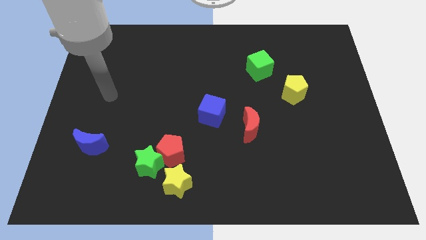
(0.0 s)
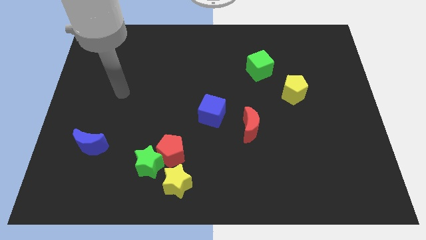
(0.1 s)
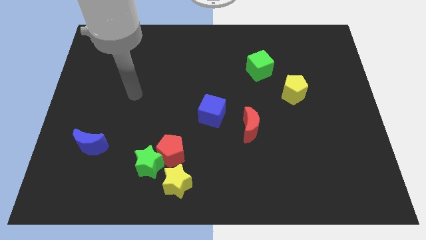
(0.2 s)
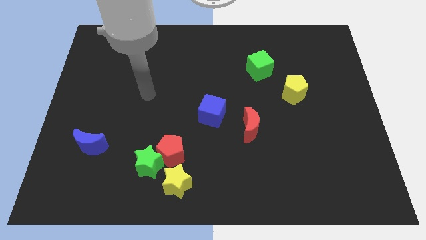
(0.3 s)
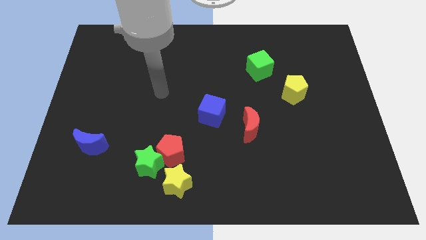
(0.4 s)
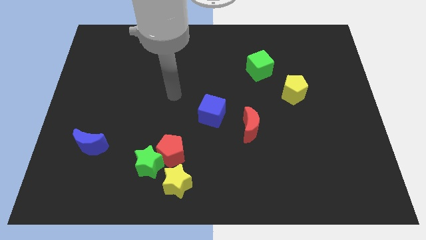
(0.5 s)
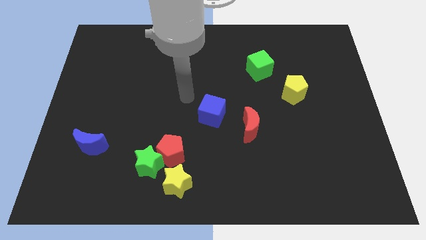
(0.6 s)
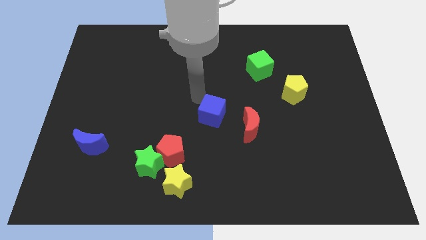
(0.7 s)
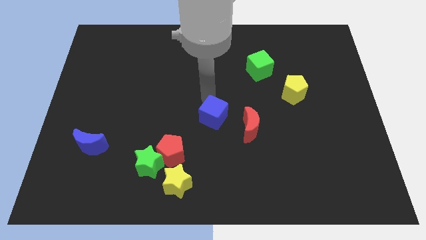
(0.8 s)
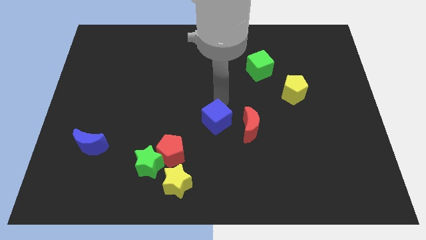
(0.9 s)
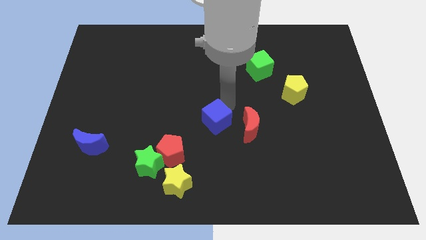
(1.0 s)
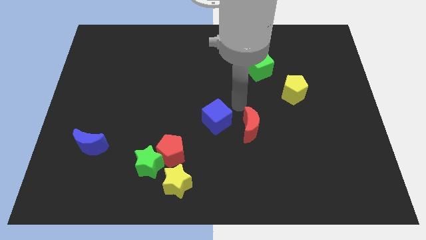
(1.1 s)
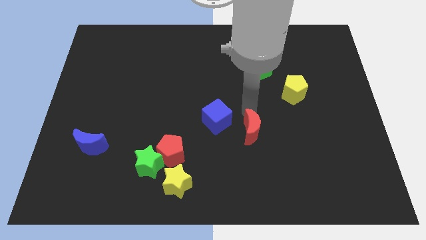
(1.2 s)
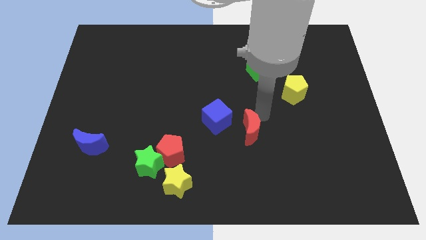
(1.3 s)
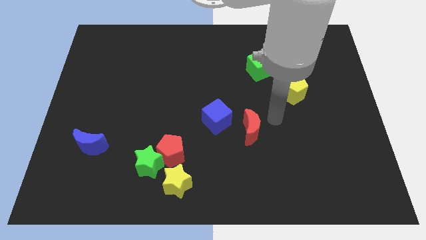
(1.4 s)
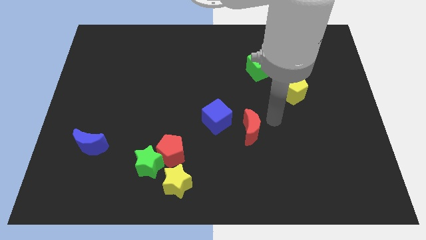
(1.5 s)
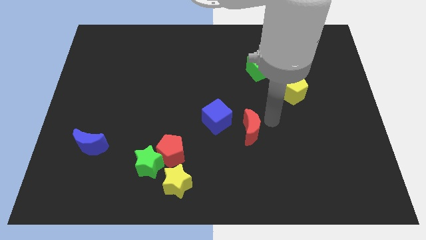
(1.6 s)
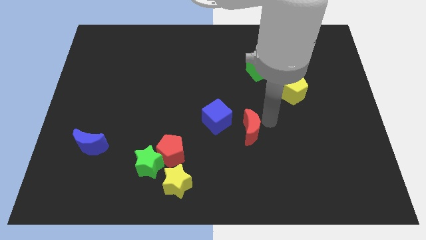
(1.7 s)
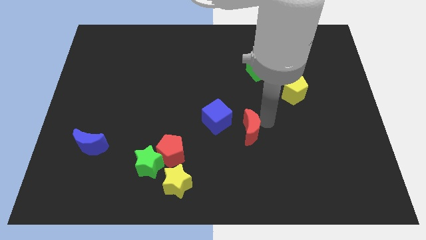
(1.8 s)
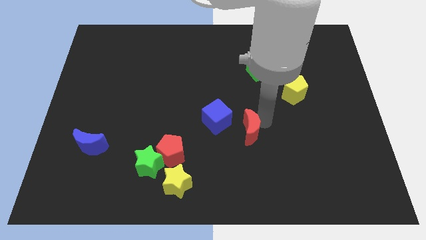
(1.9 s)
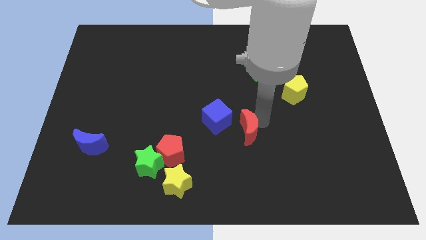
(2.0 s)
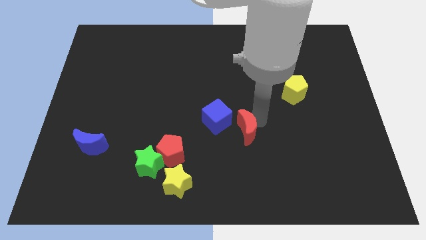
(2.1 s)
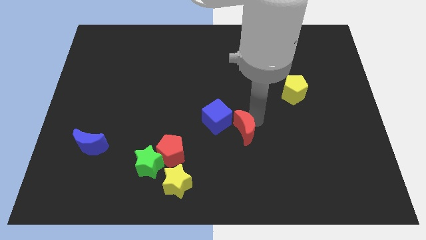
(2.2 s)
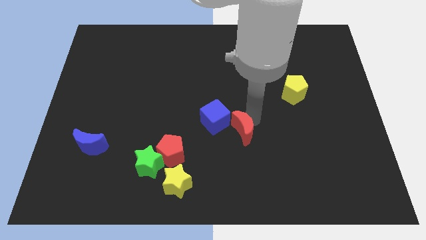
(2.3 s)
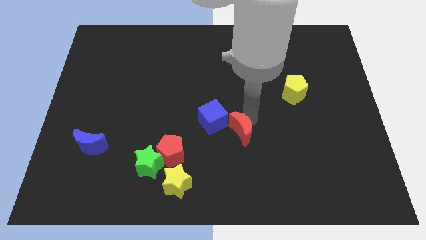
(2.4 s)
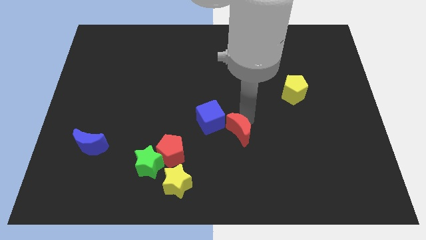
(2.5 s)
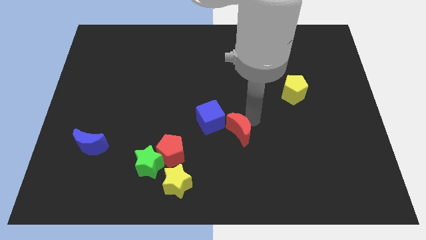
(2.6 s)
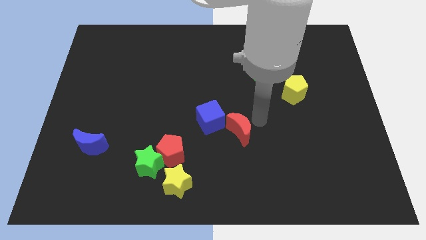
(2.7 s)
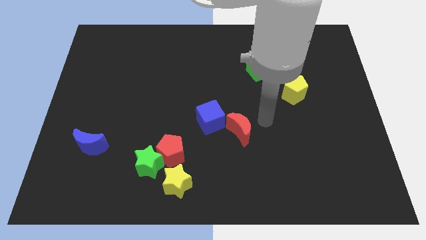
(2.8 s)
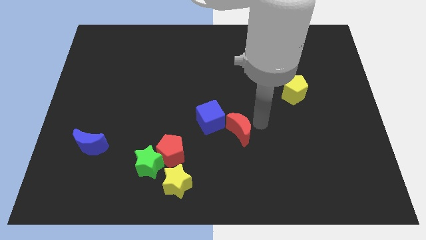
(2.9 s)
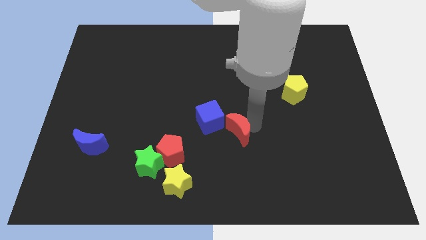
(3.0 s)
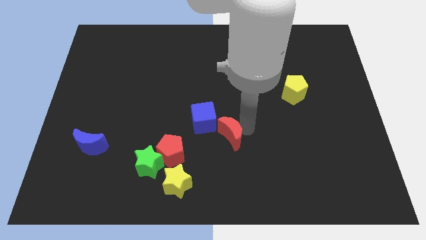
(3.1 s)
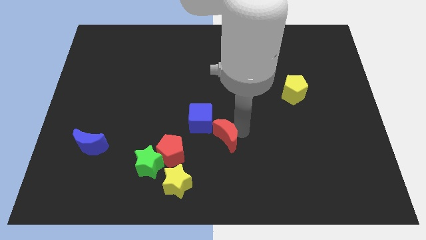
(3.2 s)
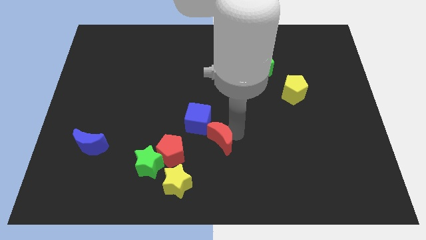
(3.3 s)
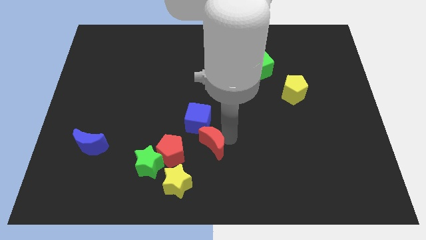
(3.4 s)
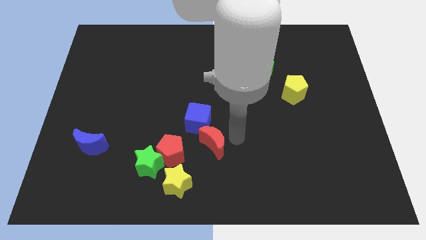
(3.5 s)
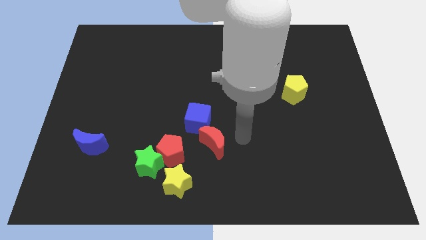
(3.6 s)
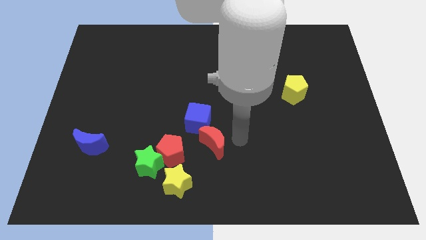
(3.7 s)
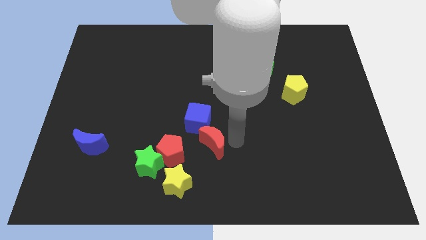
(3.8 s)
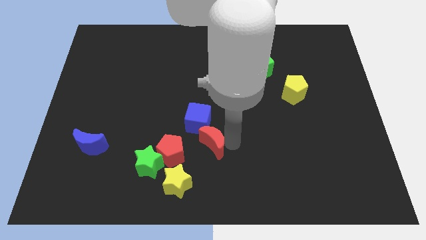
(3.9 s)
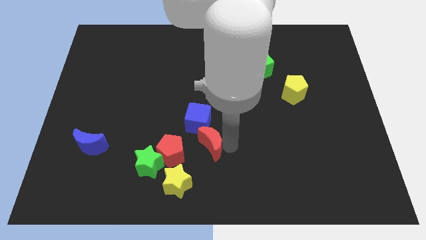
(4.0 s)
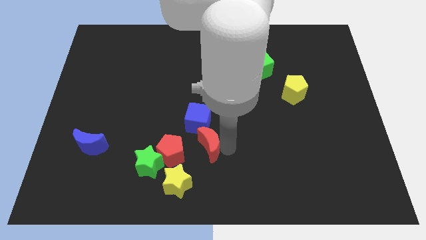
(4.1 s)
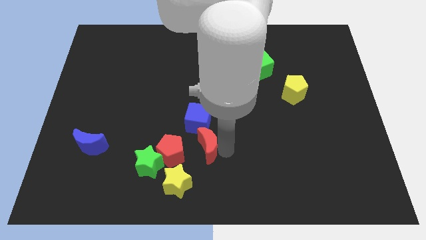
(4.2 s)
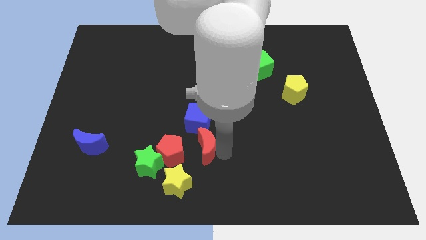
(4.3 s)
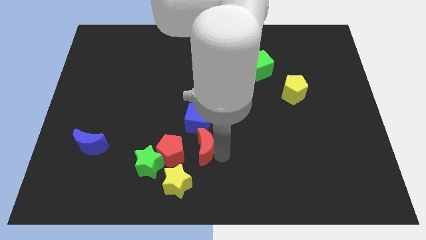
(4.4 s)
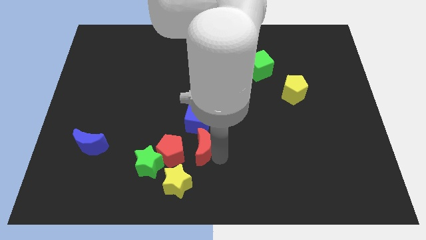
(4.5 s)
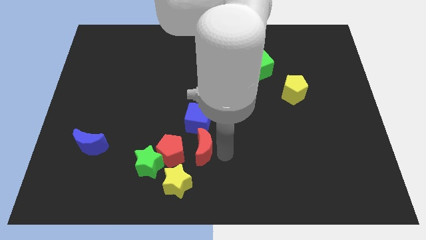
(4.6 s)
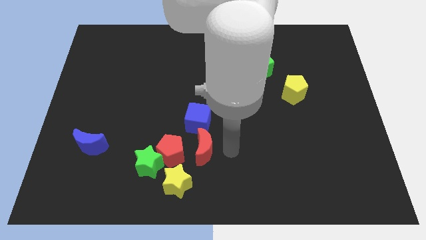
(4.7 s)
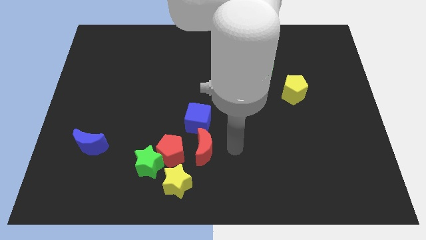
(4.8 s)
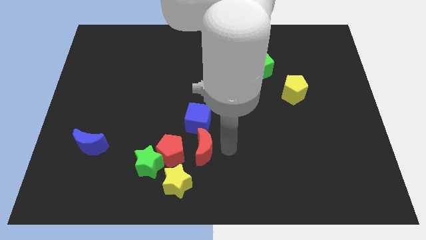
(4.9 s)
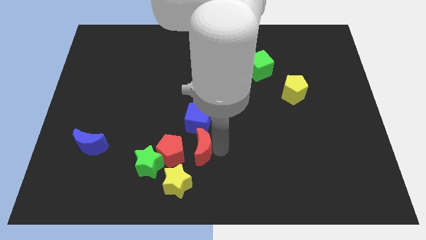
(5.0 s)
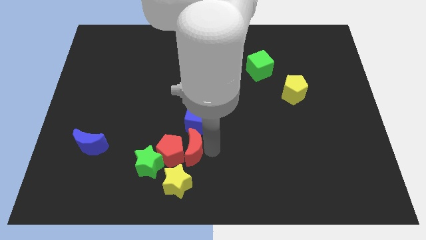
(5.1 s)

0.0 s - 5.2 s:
push the red moon next to the red pentagon
